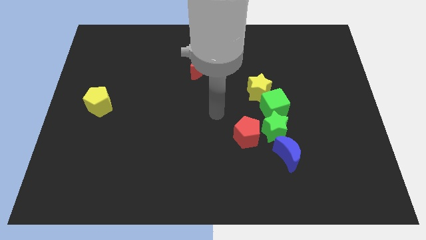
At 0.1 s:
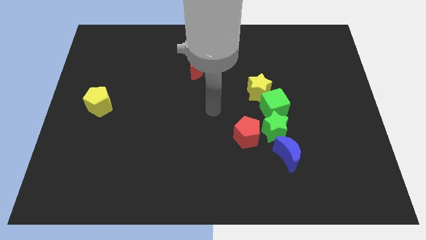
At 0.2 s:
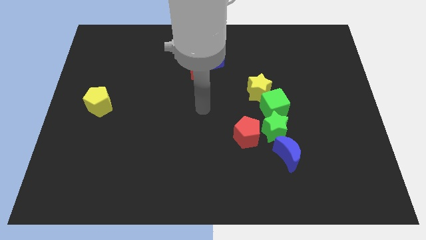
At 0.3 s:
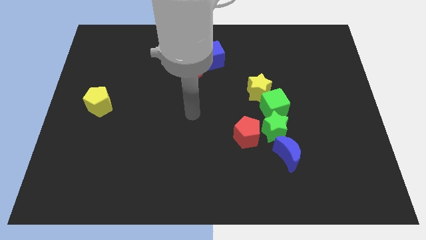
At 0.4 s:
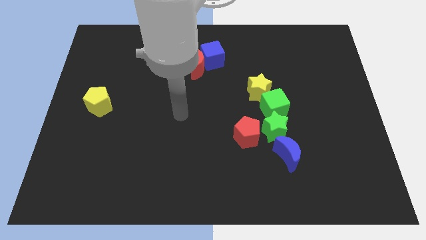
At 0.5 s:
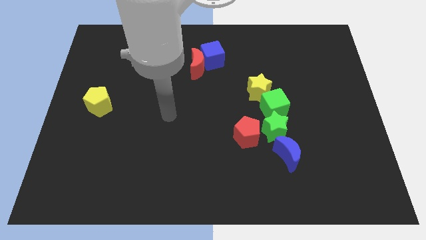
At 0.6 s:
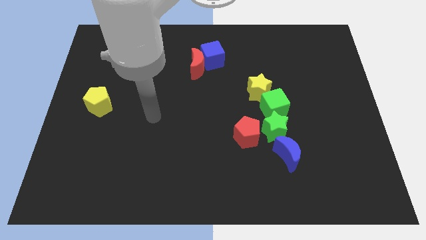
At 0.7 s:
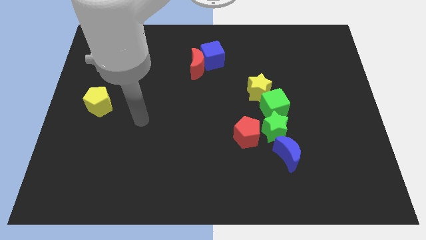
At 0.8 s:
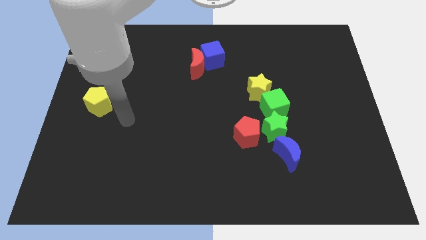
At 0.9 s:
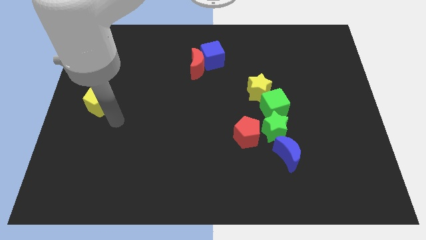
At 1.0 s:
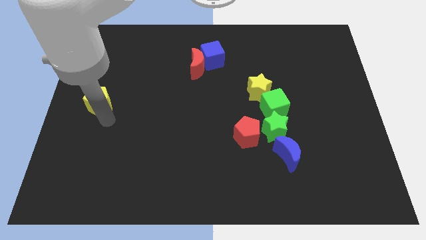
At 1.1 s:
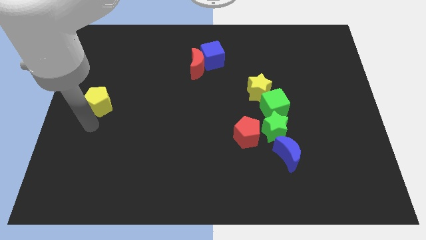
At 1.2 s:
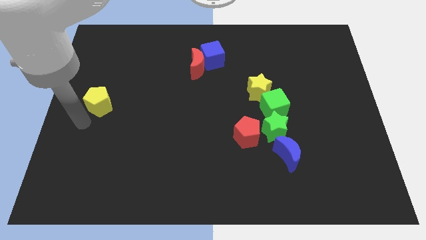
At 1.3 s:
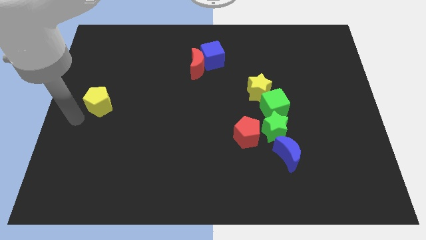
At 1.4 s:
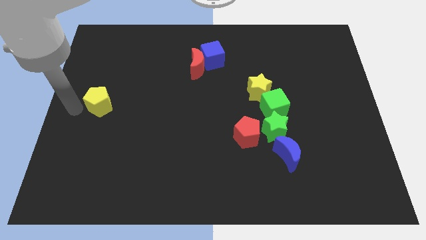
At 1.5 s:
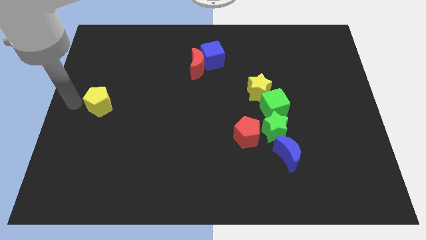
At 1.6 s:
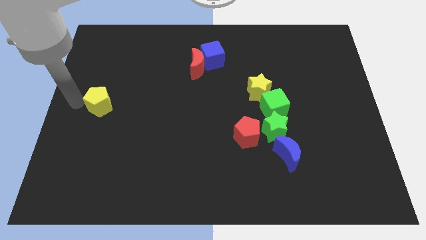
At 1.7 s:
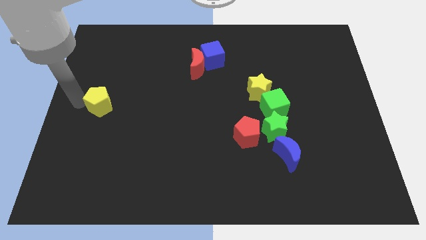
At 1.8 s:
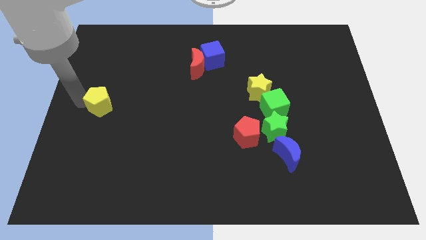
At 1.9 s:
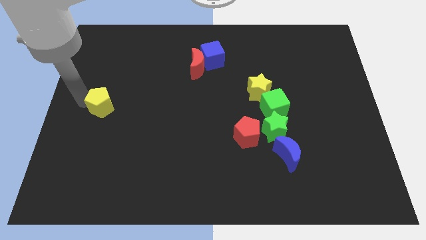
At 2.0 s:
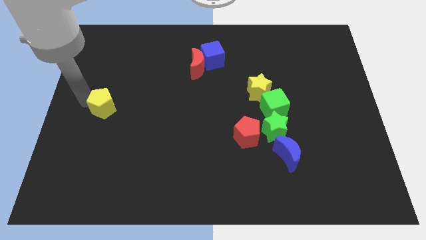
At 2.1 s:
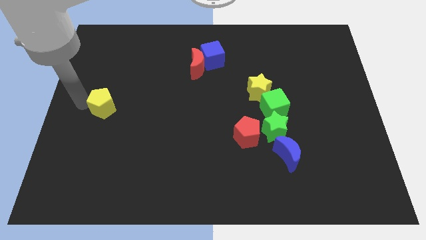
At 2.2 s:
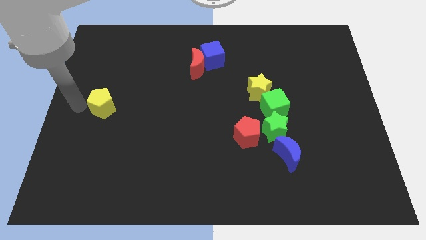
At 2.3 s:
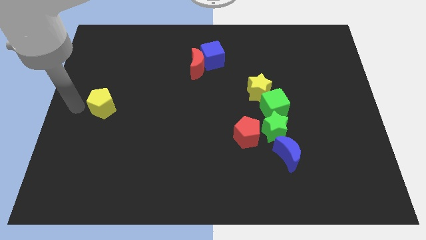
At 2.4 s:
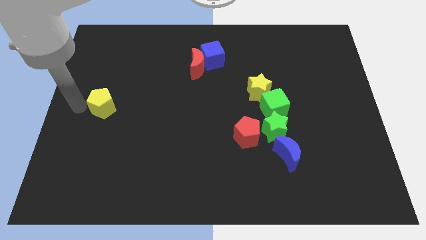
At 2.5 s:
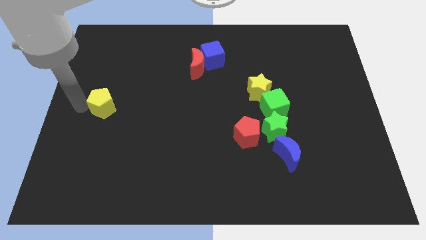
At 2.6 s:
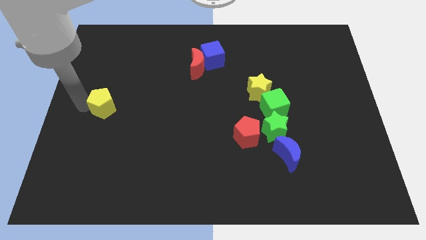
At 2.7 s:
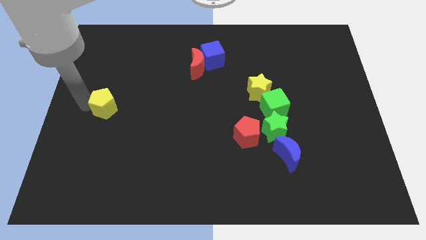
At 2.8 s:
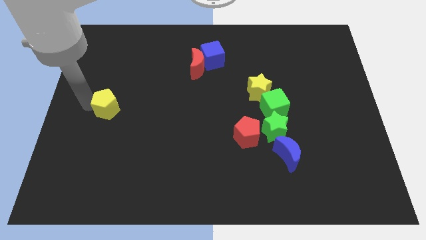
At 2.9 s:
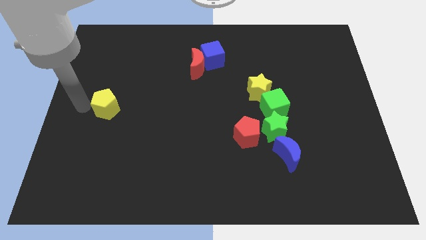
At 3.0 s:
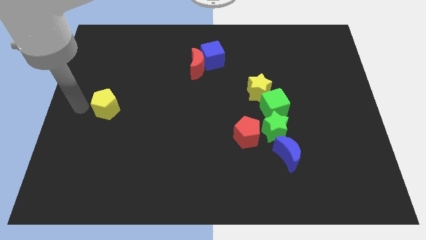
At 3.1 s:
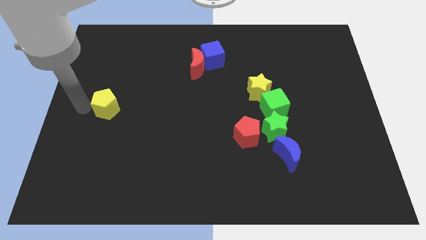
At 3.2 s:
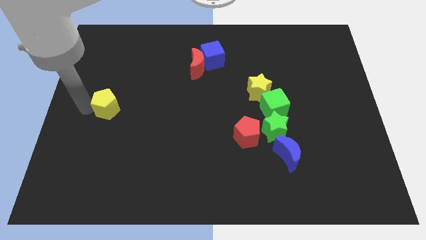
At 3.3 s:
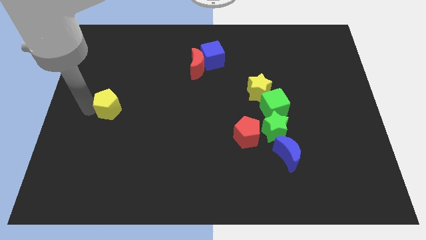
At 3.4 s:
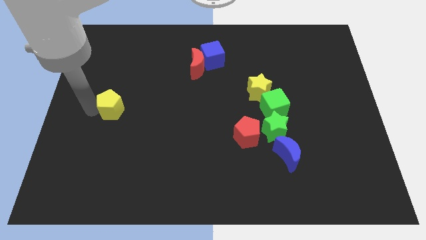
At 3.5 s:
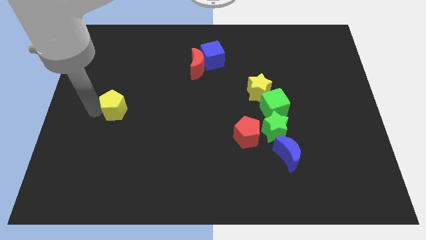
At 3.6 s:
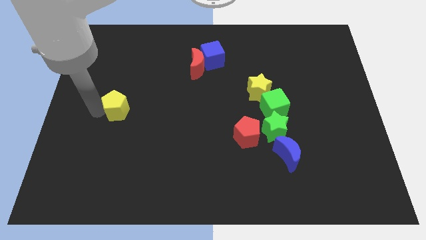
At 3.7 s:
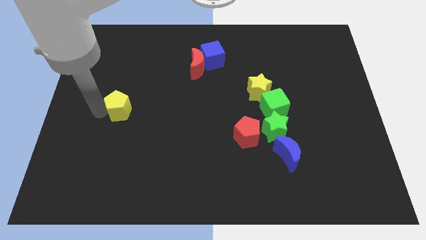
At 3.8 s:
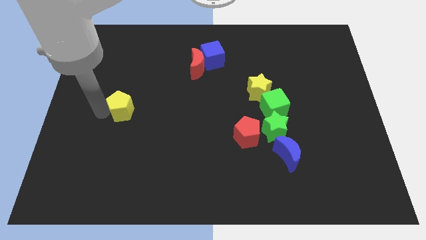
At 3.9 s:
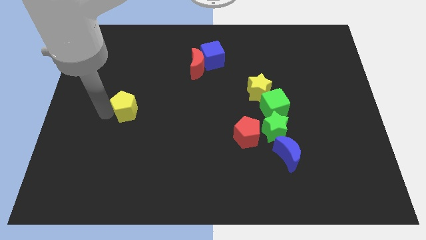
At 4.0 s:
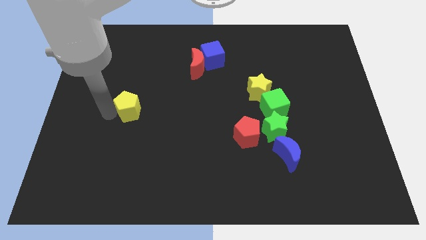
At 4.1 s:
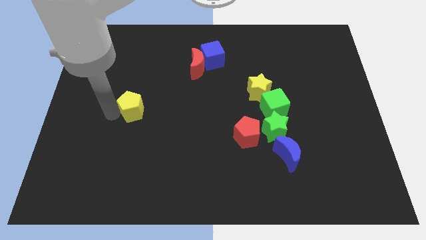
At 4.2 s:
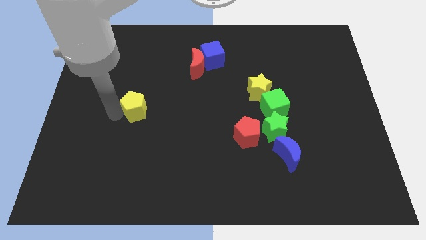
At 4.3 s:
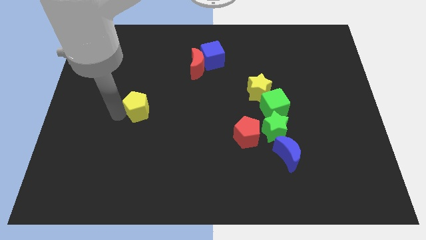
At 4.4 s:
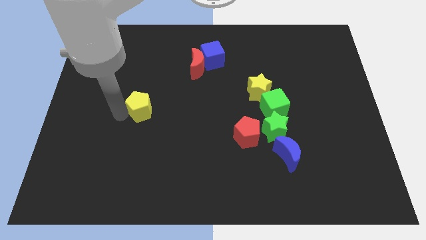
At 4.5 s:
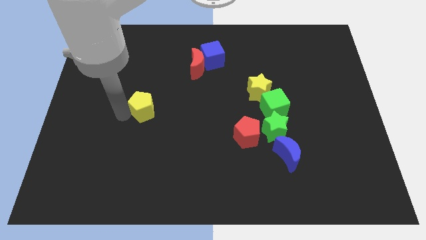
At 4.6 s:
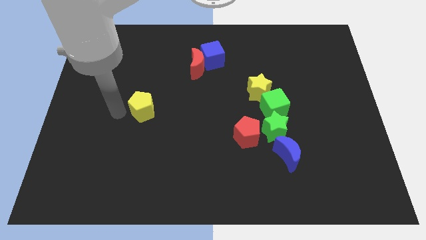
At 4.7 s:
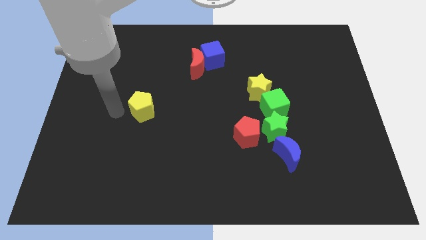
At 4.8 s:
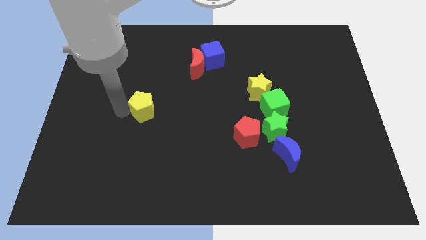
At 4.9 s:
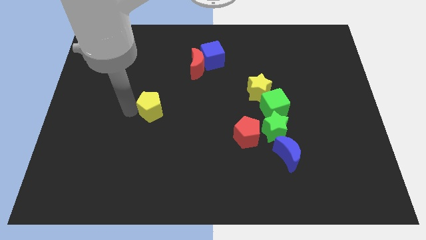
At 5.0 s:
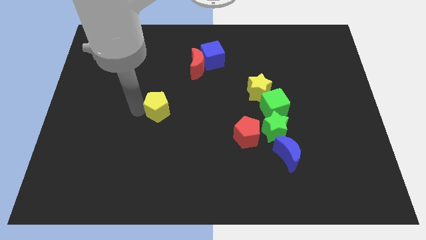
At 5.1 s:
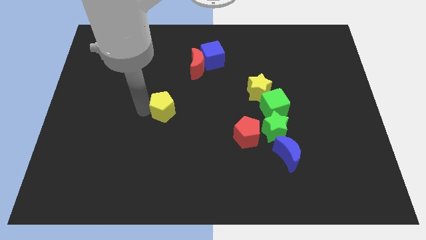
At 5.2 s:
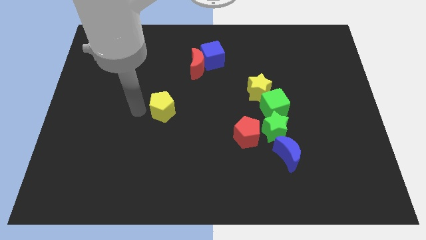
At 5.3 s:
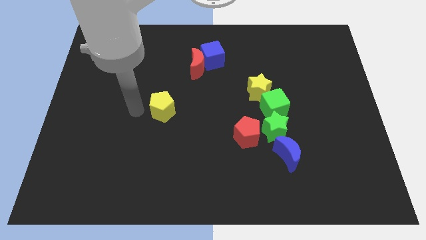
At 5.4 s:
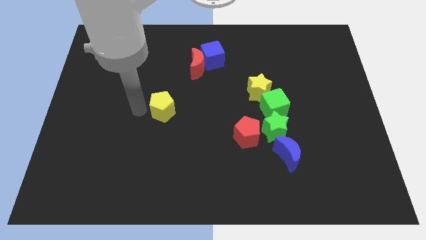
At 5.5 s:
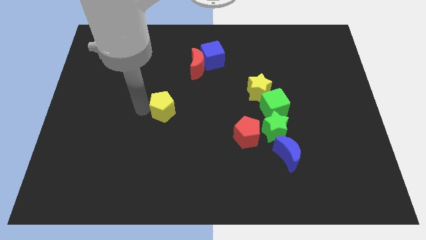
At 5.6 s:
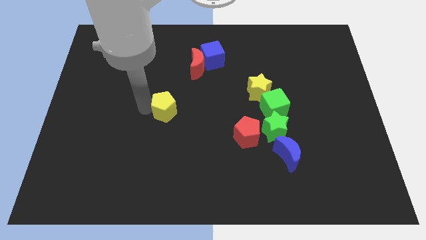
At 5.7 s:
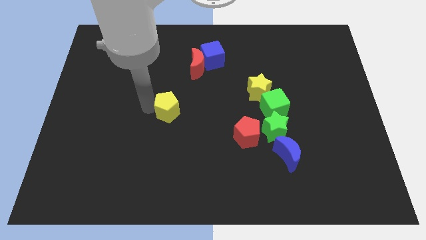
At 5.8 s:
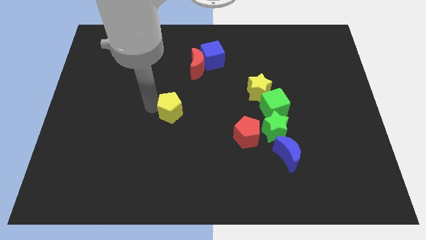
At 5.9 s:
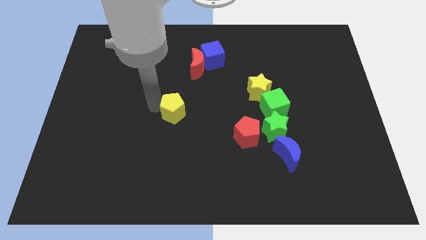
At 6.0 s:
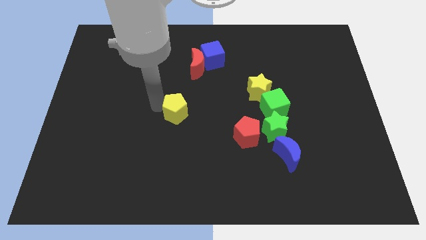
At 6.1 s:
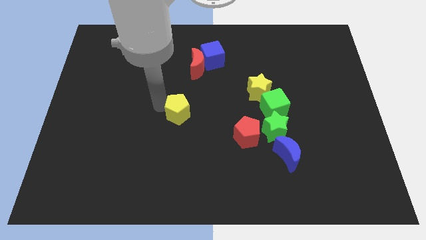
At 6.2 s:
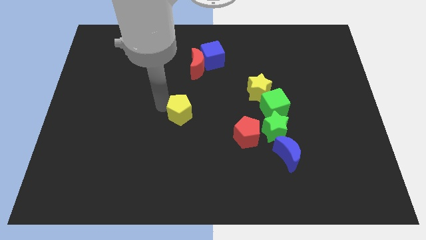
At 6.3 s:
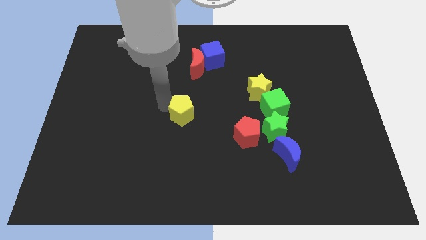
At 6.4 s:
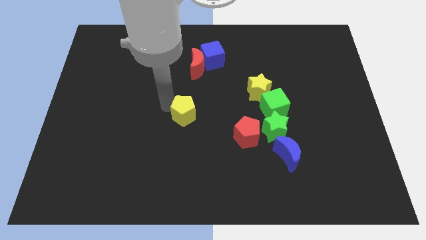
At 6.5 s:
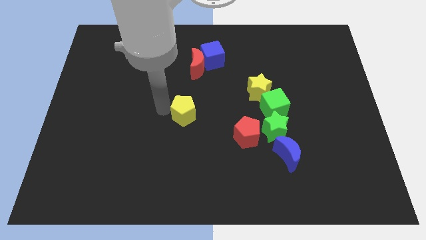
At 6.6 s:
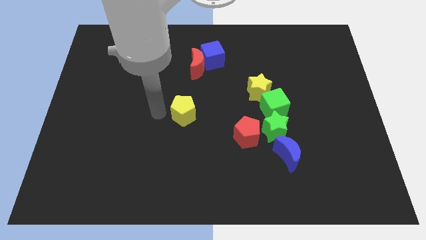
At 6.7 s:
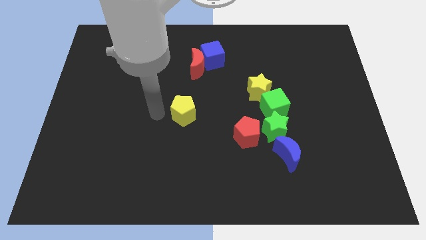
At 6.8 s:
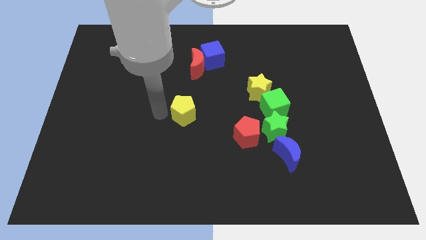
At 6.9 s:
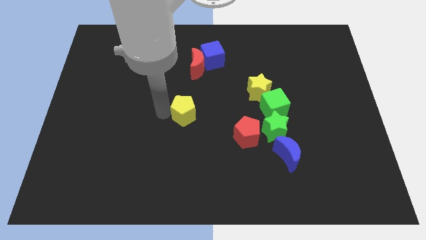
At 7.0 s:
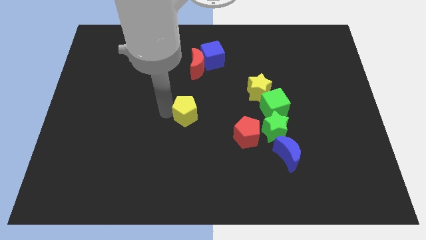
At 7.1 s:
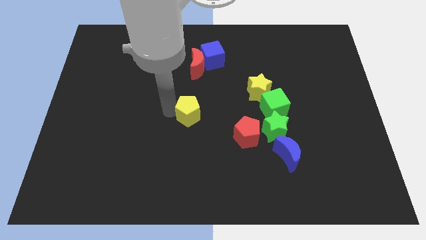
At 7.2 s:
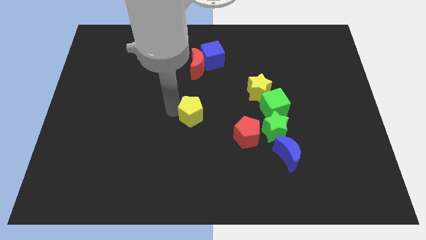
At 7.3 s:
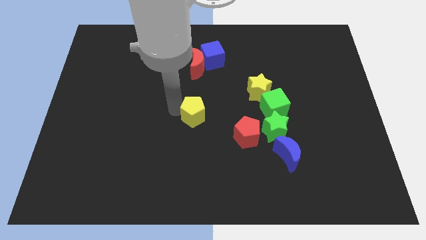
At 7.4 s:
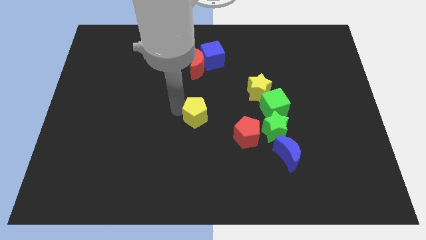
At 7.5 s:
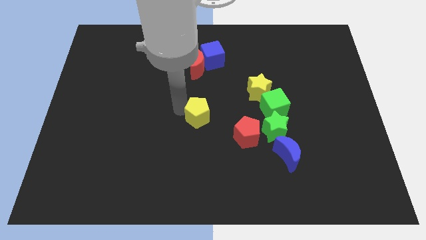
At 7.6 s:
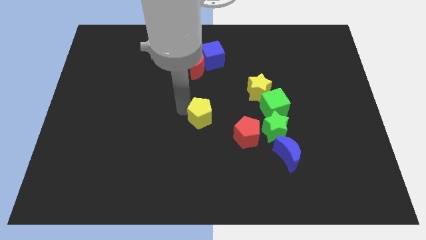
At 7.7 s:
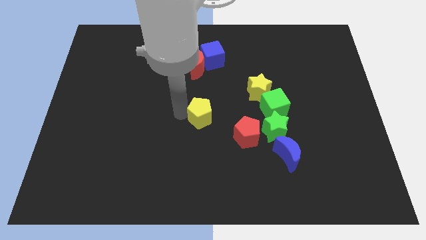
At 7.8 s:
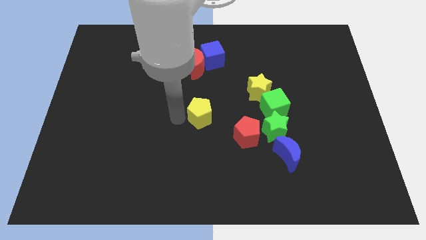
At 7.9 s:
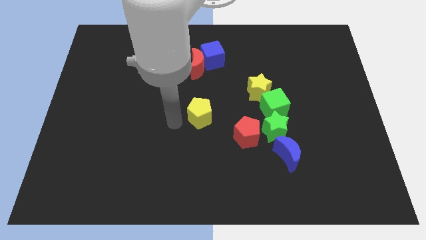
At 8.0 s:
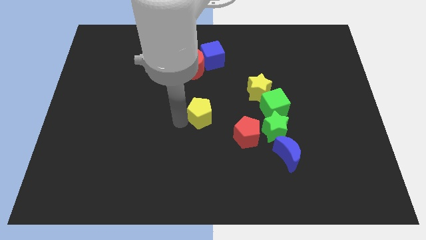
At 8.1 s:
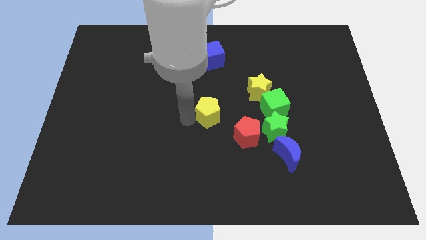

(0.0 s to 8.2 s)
move the yellow pentagon left of the green cube
